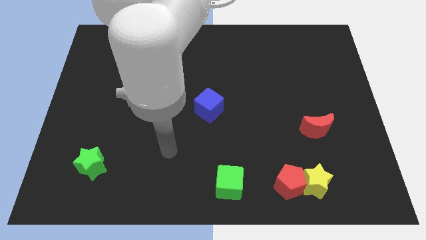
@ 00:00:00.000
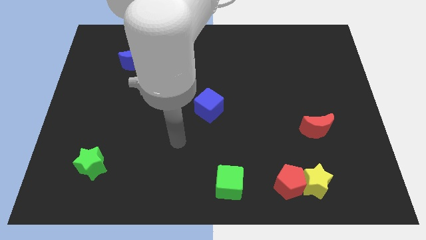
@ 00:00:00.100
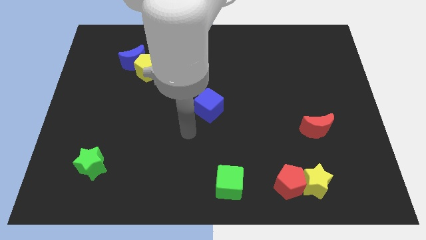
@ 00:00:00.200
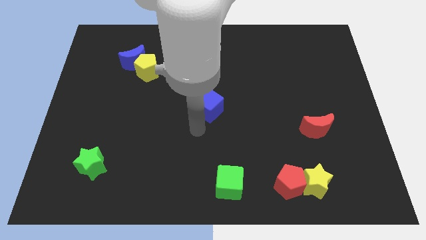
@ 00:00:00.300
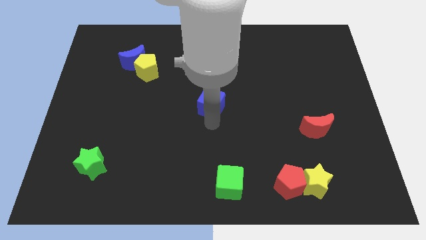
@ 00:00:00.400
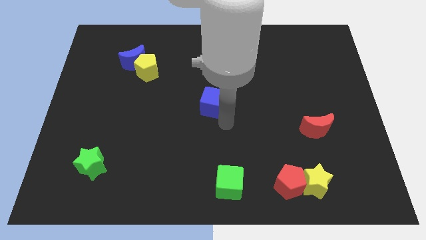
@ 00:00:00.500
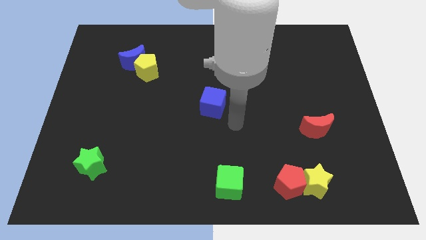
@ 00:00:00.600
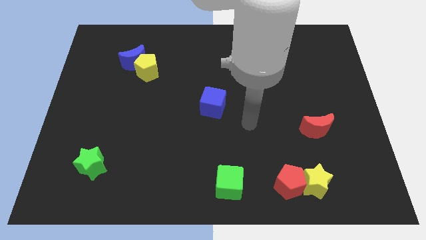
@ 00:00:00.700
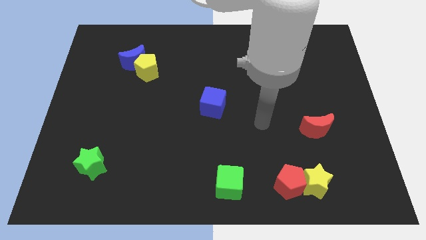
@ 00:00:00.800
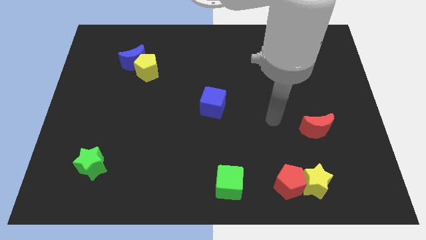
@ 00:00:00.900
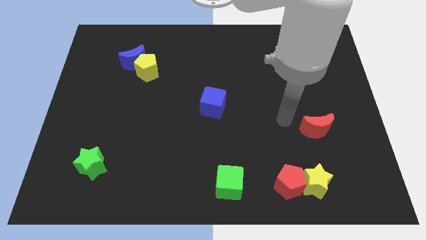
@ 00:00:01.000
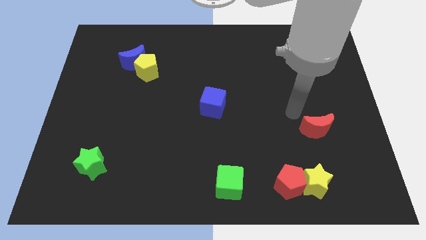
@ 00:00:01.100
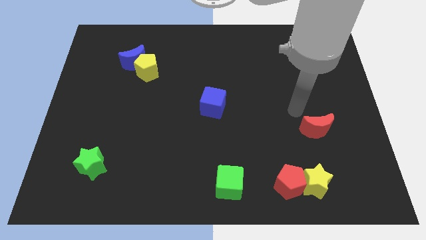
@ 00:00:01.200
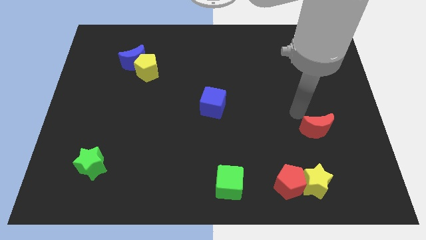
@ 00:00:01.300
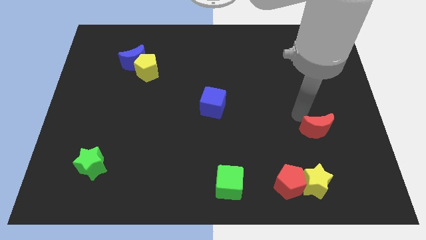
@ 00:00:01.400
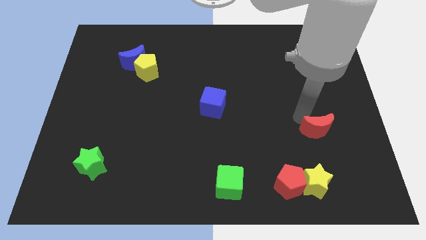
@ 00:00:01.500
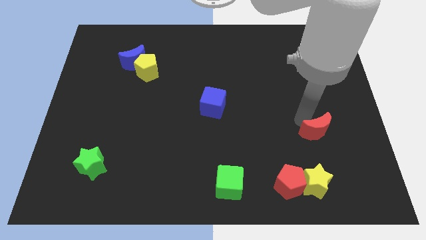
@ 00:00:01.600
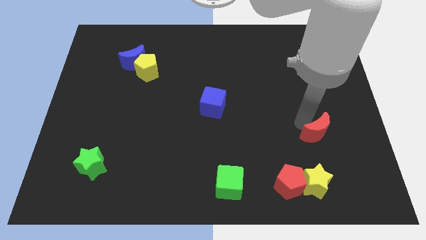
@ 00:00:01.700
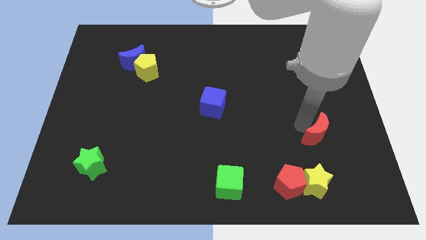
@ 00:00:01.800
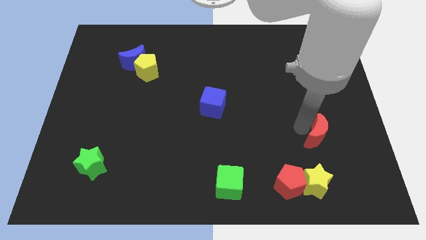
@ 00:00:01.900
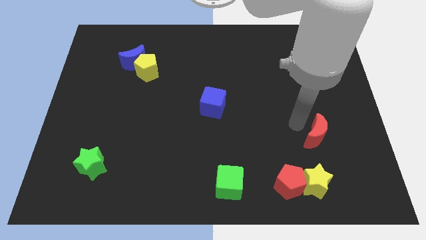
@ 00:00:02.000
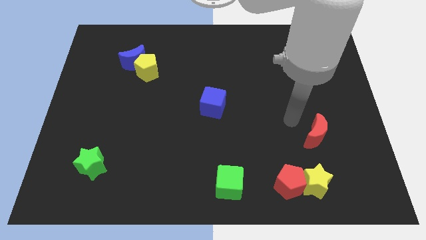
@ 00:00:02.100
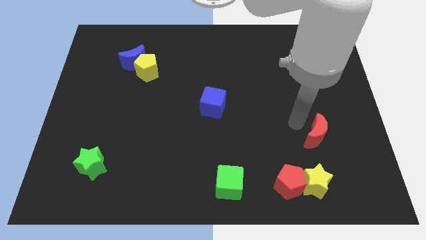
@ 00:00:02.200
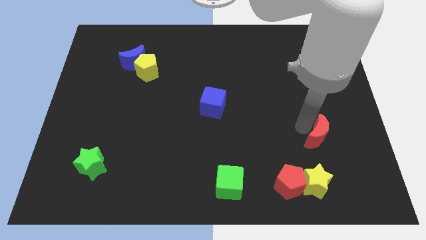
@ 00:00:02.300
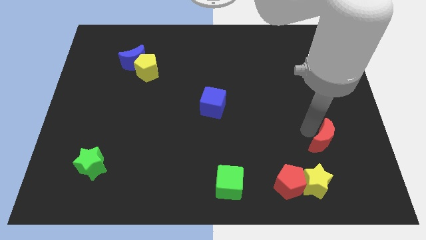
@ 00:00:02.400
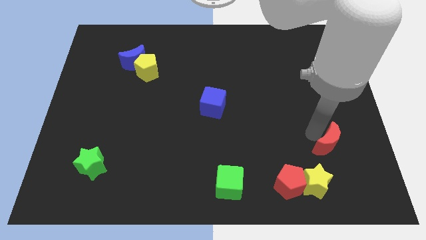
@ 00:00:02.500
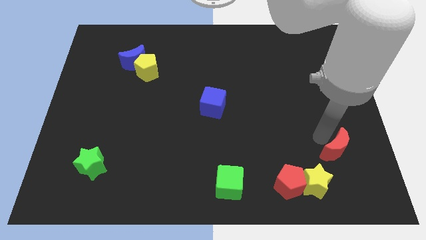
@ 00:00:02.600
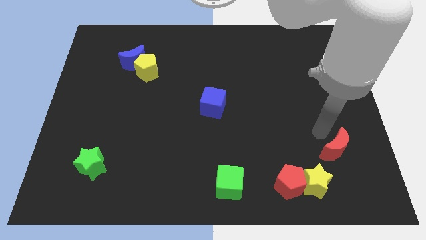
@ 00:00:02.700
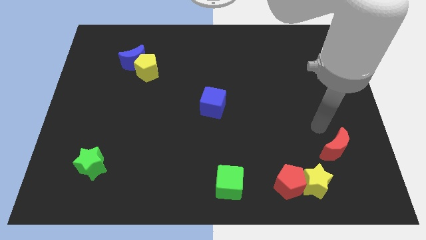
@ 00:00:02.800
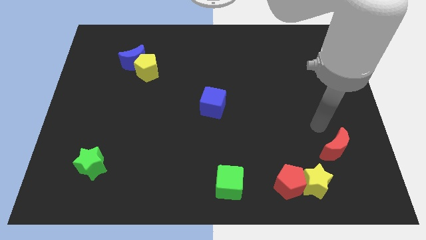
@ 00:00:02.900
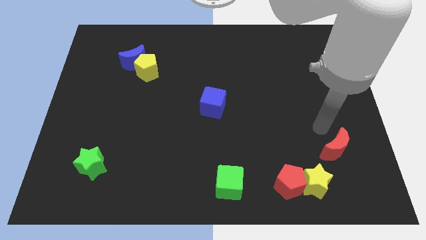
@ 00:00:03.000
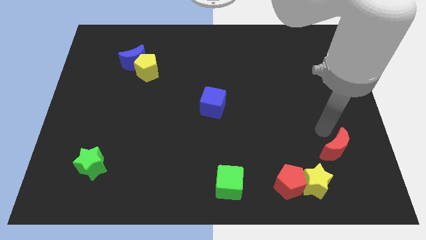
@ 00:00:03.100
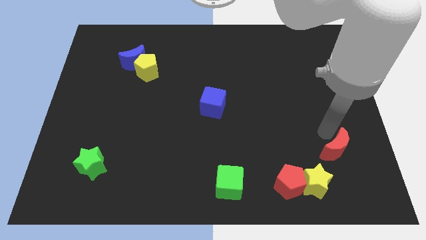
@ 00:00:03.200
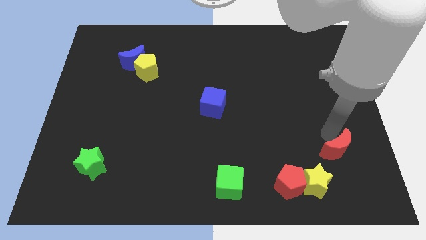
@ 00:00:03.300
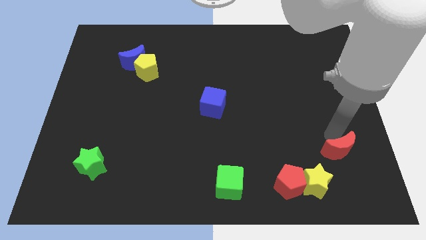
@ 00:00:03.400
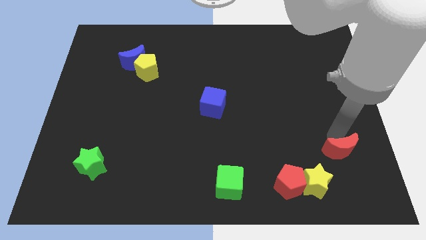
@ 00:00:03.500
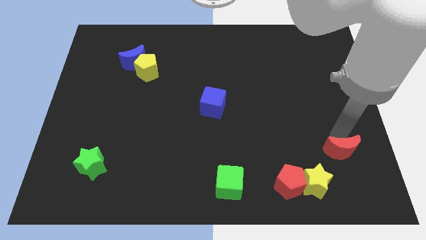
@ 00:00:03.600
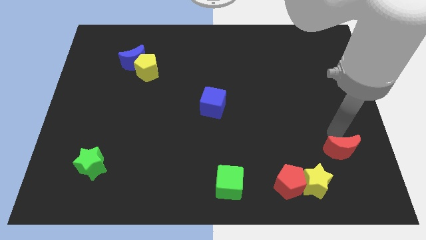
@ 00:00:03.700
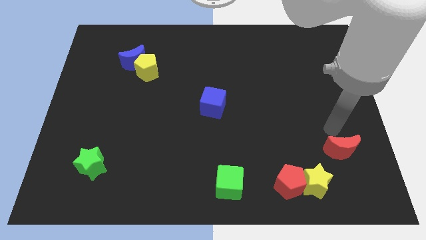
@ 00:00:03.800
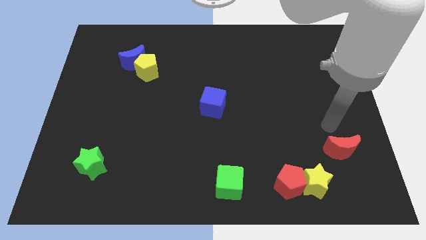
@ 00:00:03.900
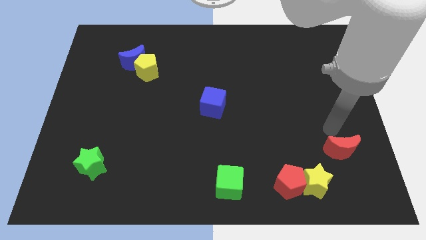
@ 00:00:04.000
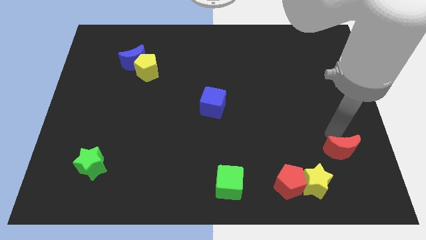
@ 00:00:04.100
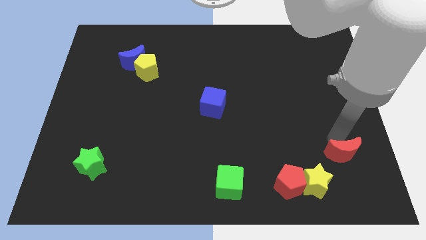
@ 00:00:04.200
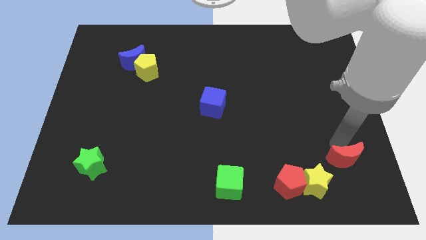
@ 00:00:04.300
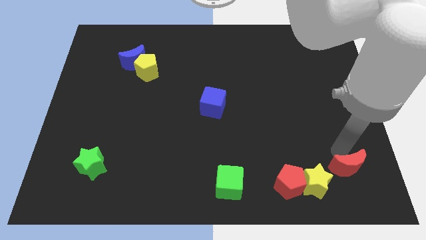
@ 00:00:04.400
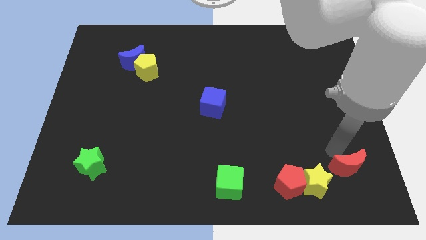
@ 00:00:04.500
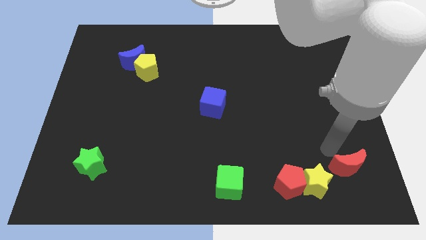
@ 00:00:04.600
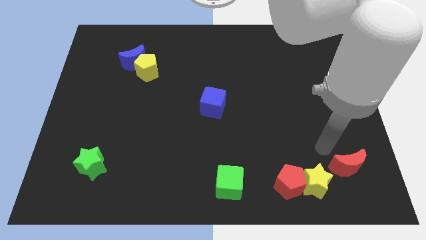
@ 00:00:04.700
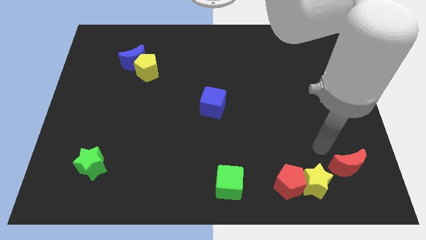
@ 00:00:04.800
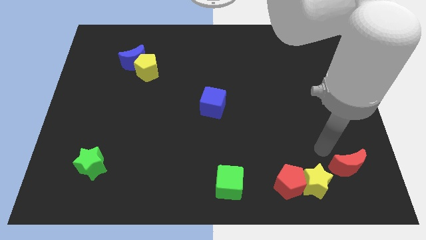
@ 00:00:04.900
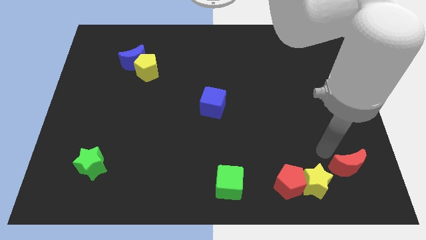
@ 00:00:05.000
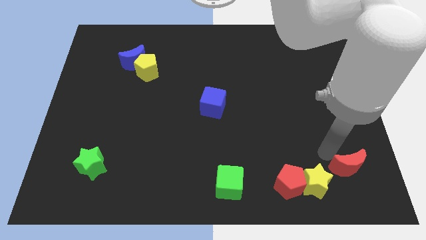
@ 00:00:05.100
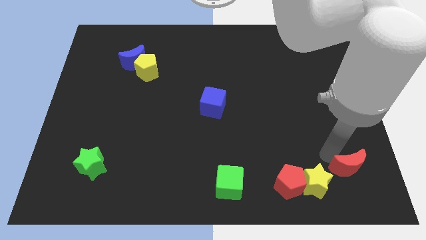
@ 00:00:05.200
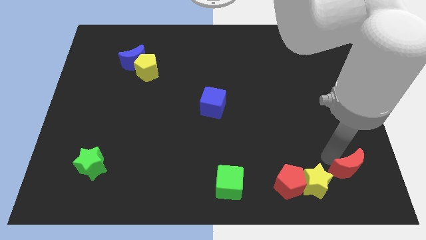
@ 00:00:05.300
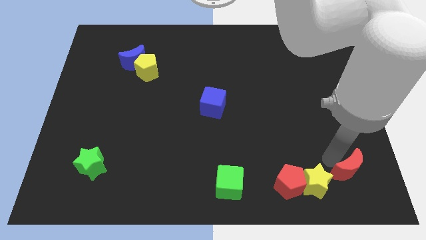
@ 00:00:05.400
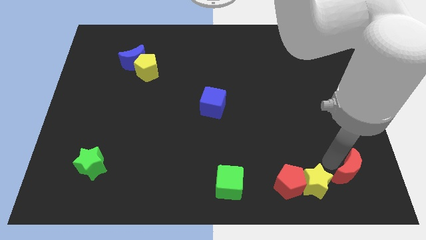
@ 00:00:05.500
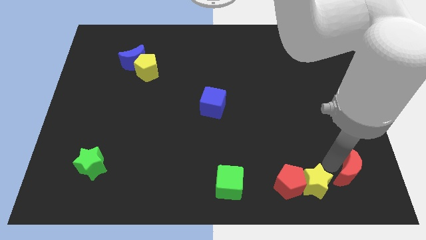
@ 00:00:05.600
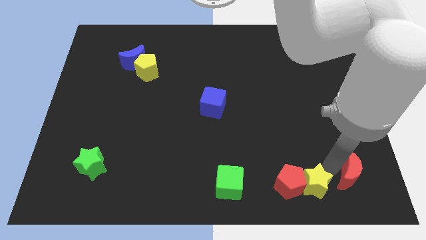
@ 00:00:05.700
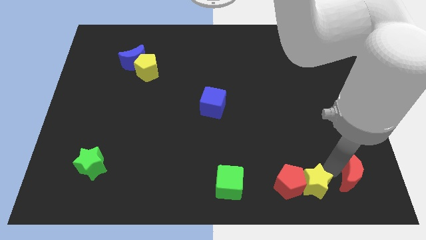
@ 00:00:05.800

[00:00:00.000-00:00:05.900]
push the red moon to the bottom right corner

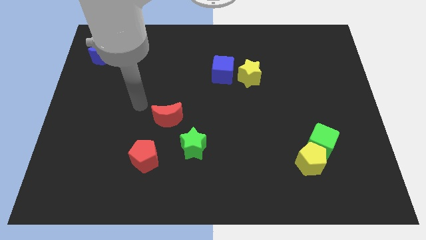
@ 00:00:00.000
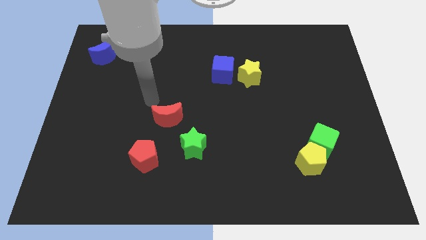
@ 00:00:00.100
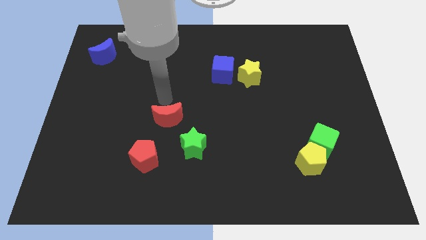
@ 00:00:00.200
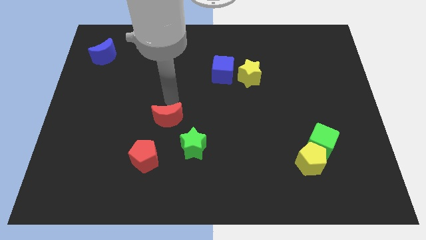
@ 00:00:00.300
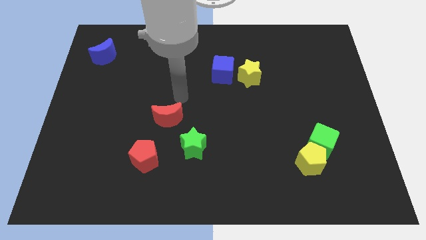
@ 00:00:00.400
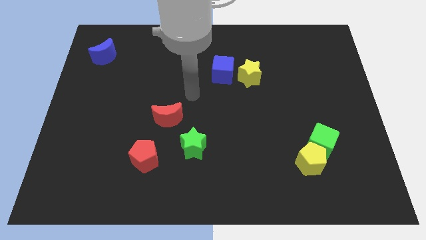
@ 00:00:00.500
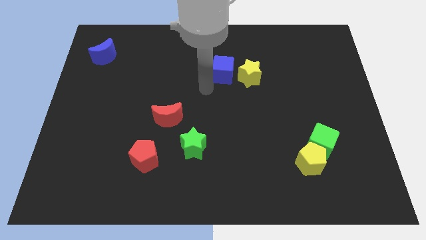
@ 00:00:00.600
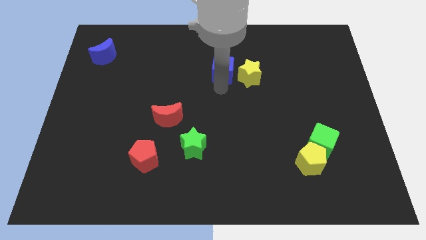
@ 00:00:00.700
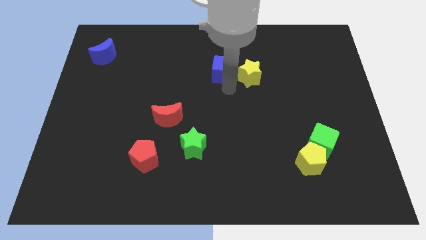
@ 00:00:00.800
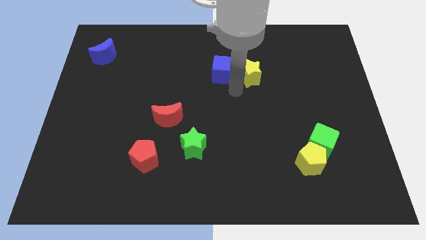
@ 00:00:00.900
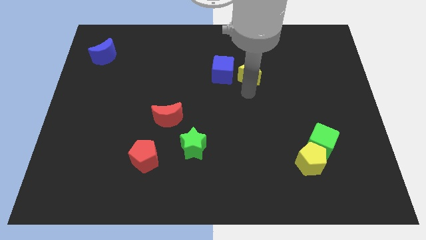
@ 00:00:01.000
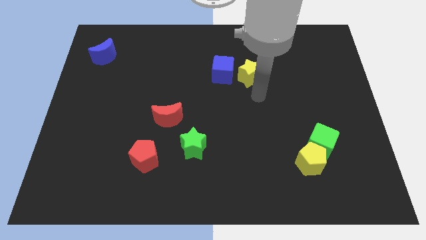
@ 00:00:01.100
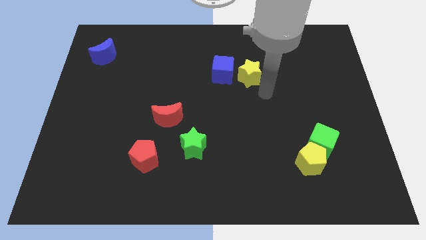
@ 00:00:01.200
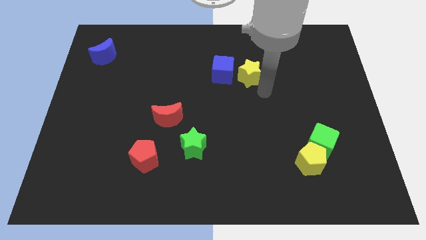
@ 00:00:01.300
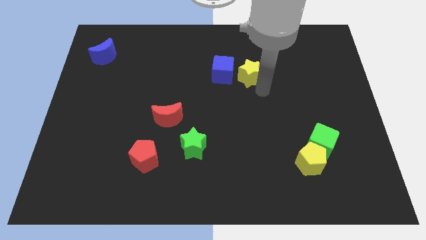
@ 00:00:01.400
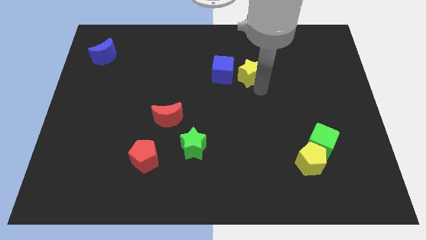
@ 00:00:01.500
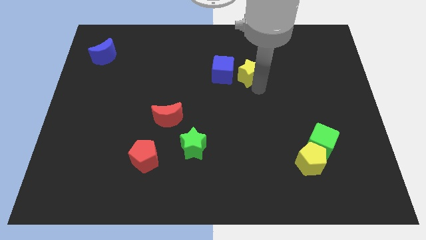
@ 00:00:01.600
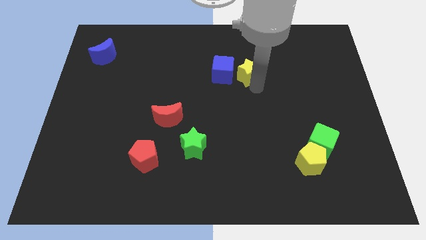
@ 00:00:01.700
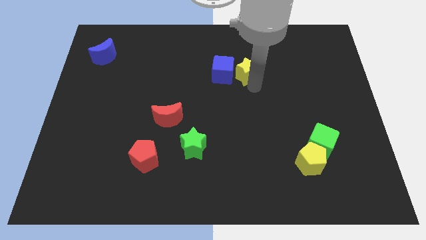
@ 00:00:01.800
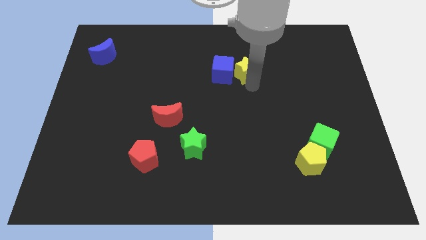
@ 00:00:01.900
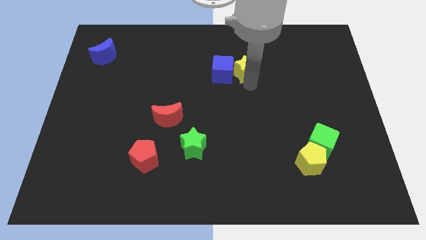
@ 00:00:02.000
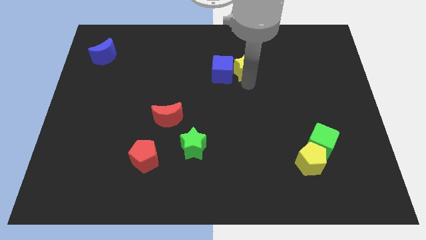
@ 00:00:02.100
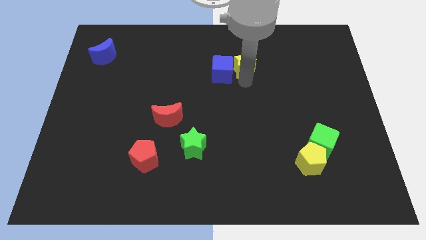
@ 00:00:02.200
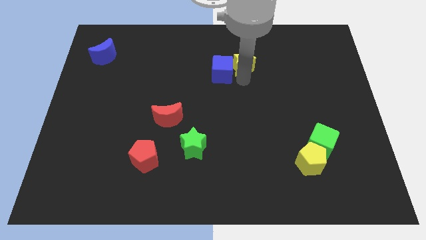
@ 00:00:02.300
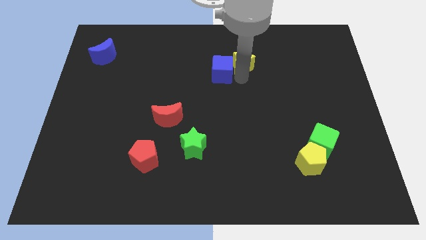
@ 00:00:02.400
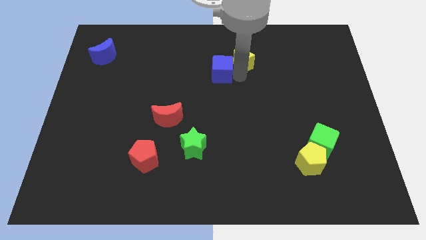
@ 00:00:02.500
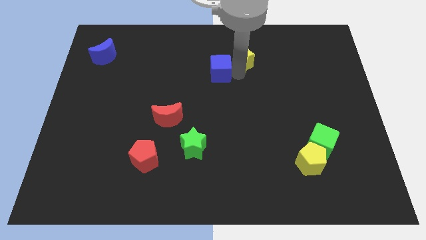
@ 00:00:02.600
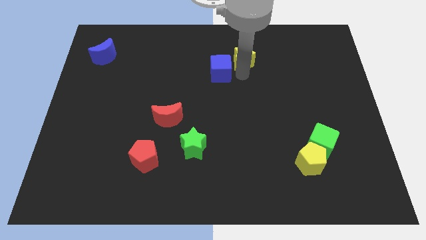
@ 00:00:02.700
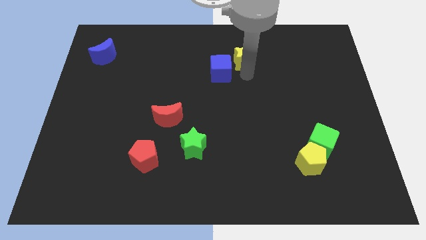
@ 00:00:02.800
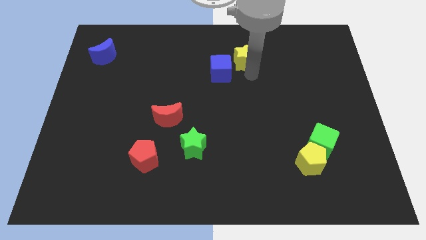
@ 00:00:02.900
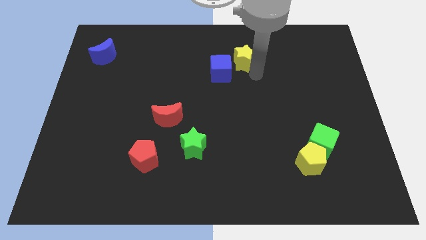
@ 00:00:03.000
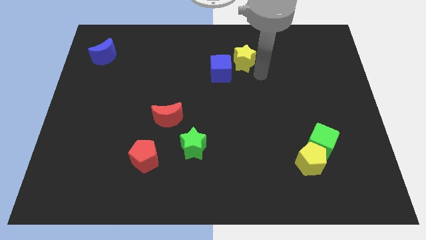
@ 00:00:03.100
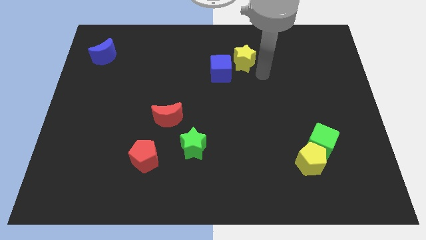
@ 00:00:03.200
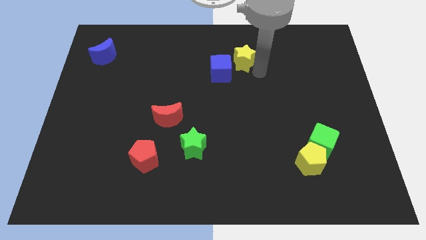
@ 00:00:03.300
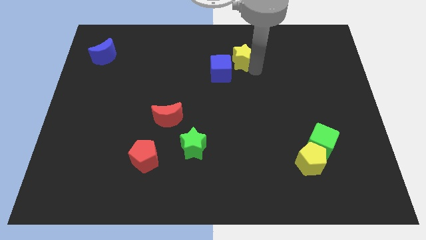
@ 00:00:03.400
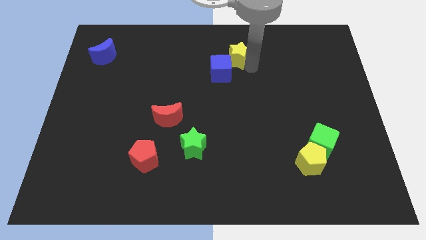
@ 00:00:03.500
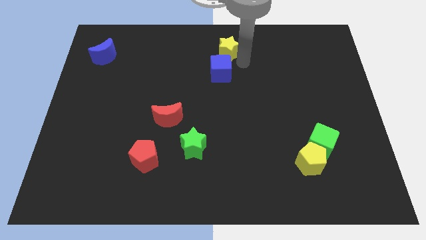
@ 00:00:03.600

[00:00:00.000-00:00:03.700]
put the yellow star to the towards your base
